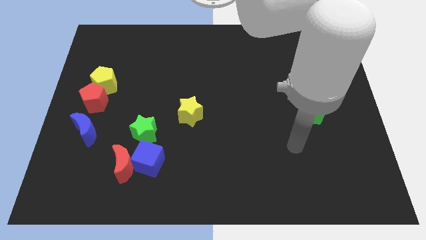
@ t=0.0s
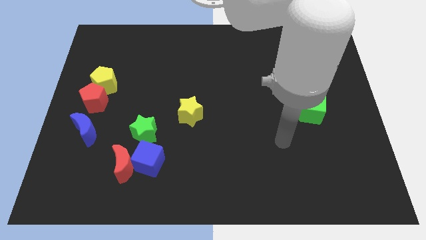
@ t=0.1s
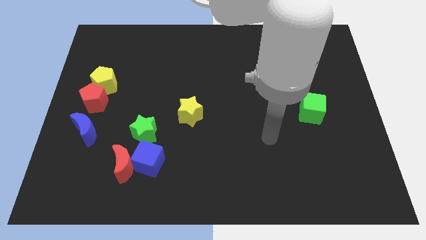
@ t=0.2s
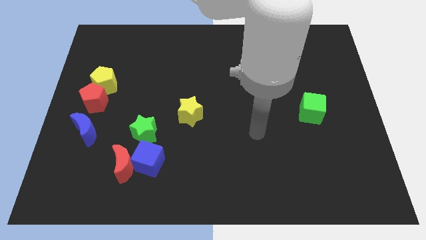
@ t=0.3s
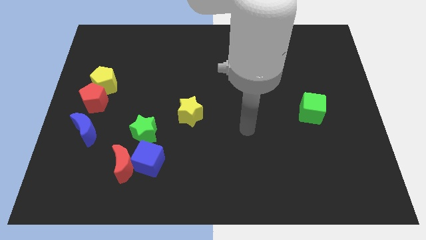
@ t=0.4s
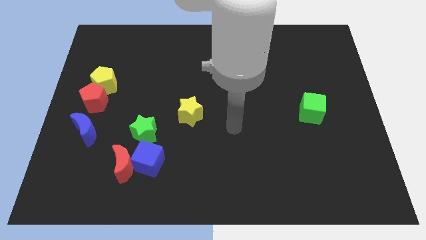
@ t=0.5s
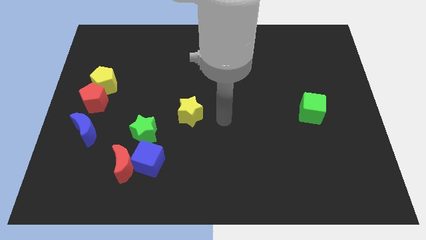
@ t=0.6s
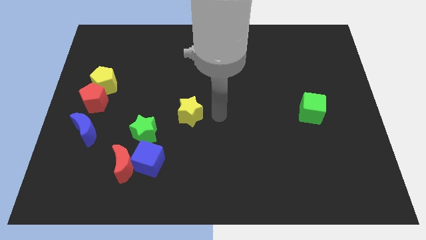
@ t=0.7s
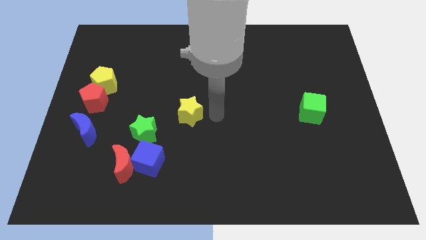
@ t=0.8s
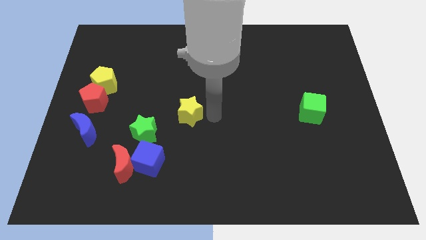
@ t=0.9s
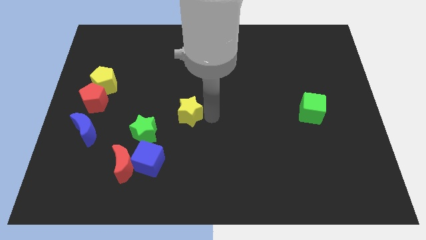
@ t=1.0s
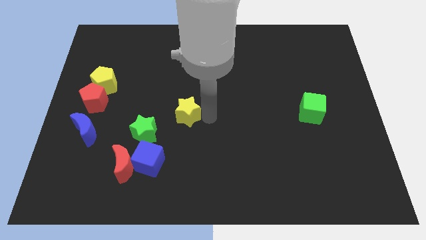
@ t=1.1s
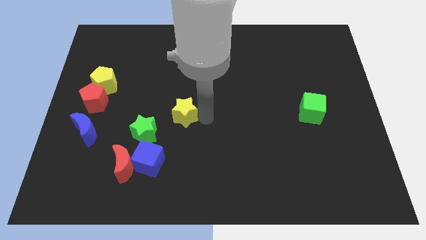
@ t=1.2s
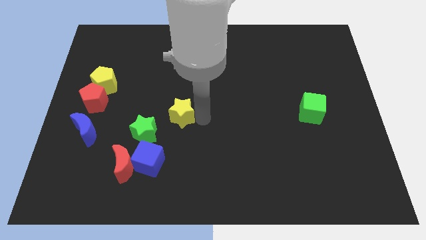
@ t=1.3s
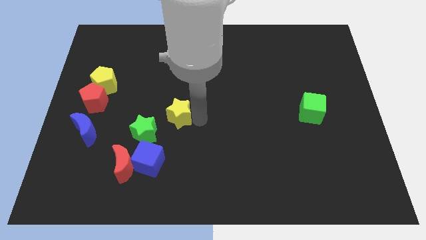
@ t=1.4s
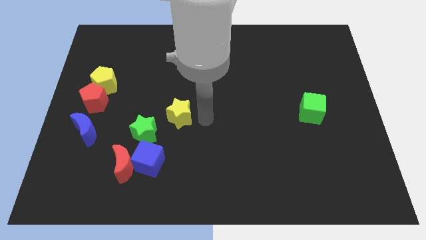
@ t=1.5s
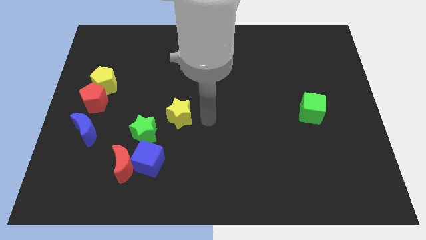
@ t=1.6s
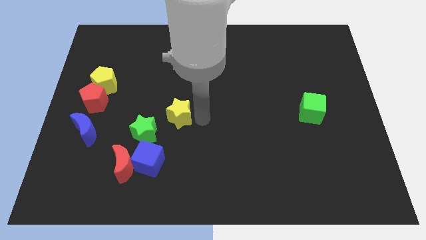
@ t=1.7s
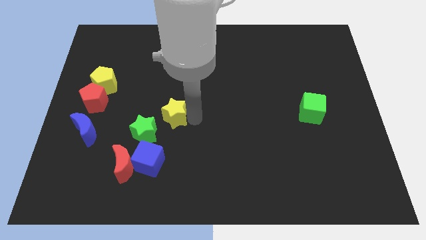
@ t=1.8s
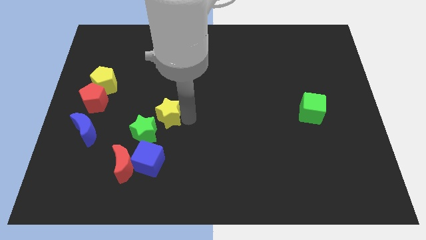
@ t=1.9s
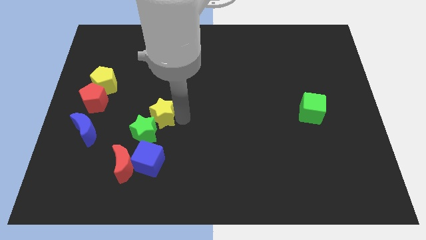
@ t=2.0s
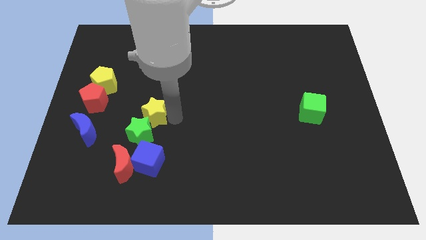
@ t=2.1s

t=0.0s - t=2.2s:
slightly push the yellow star to the left

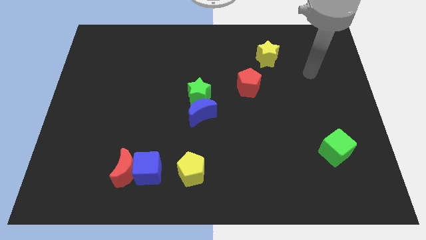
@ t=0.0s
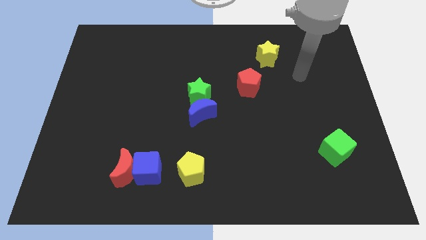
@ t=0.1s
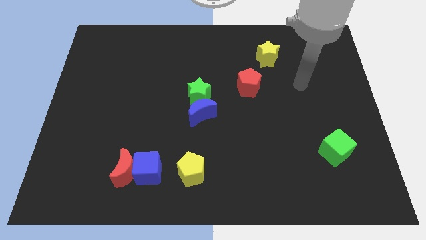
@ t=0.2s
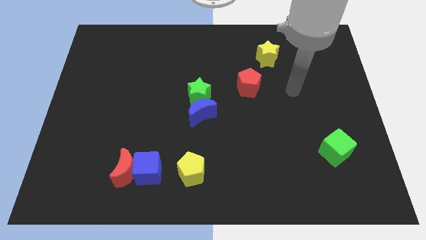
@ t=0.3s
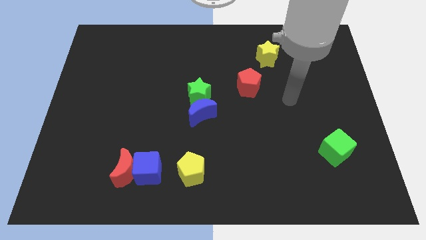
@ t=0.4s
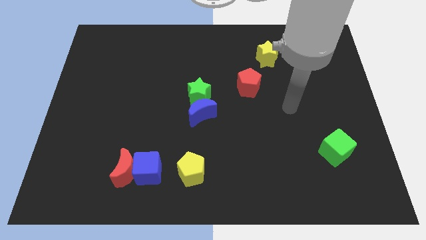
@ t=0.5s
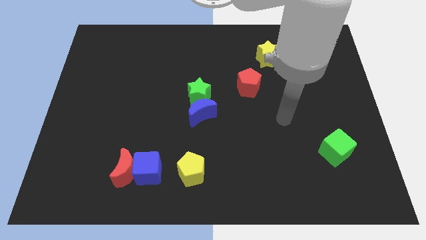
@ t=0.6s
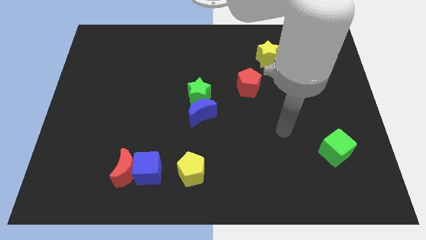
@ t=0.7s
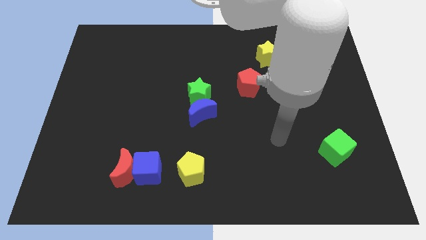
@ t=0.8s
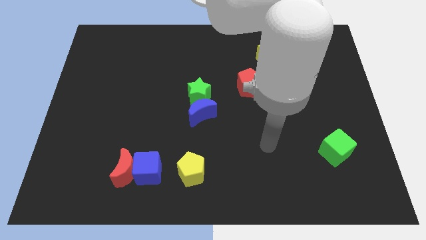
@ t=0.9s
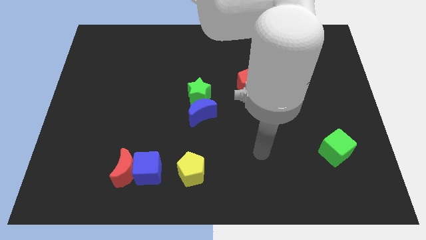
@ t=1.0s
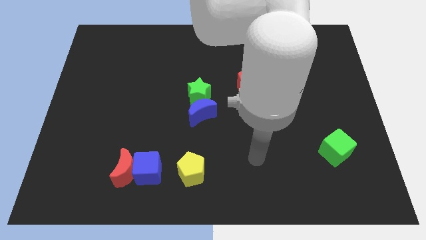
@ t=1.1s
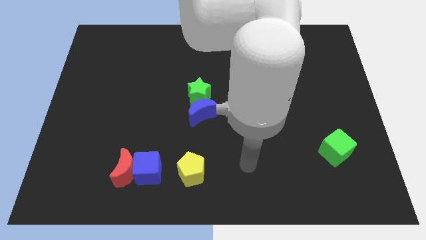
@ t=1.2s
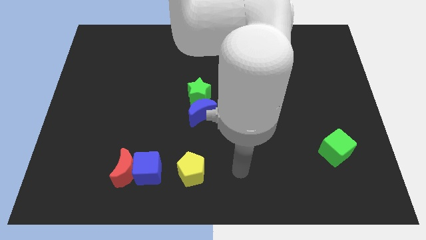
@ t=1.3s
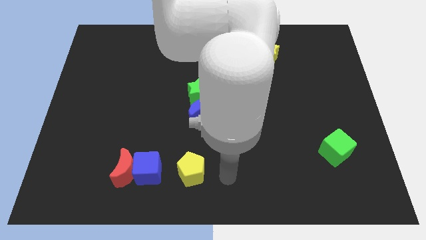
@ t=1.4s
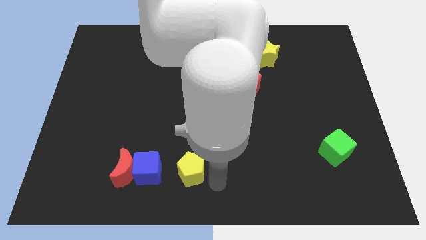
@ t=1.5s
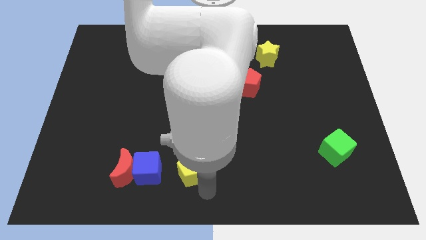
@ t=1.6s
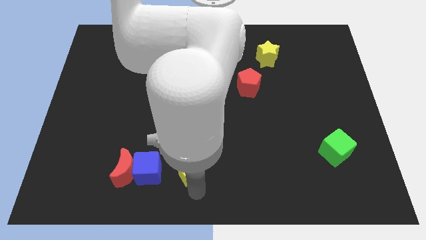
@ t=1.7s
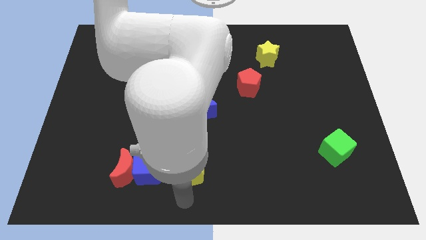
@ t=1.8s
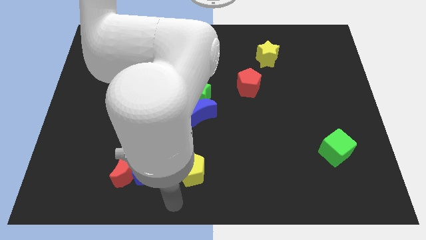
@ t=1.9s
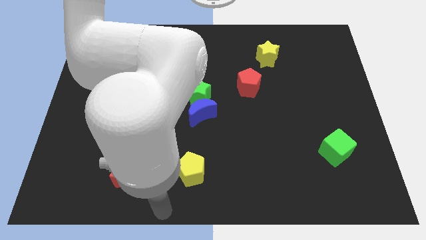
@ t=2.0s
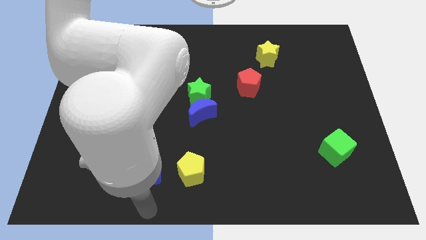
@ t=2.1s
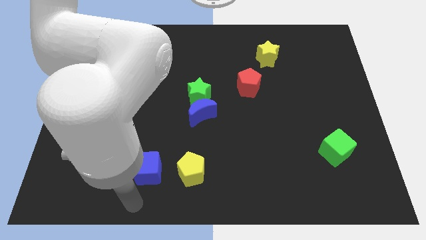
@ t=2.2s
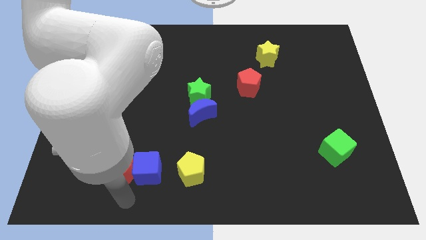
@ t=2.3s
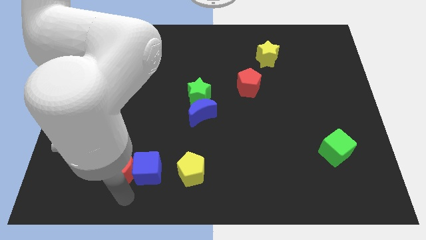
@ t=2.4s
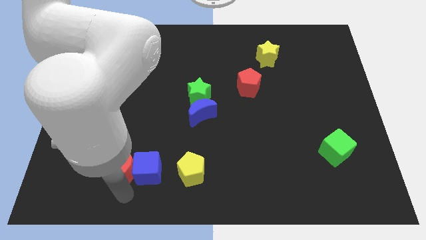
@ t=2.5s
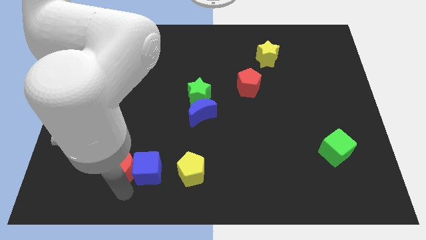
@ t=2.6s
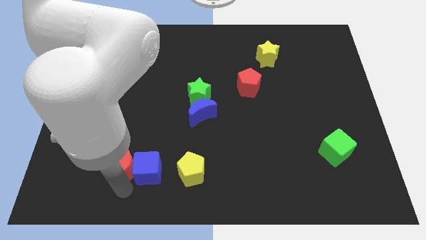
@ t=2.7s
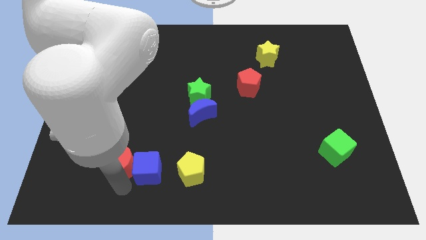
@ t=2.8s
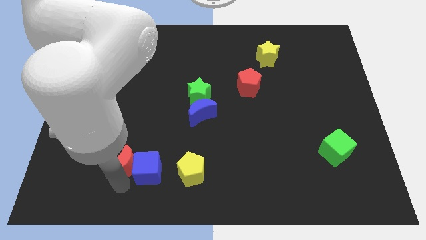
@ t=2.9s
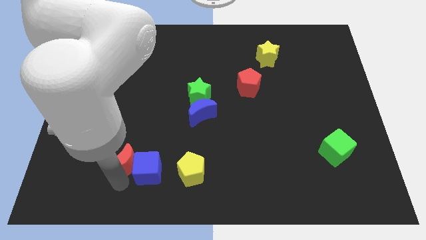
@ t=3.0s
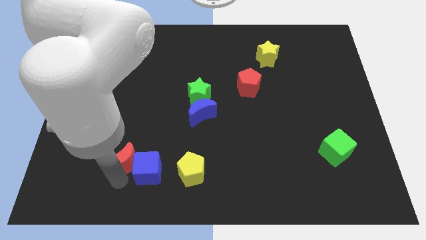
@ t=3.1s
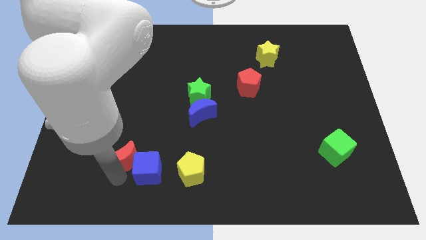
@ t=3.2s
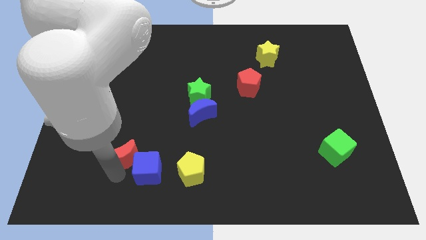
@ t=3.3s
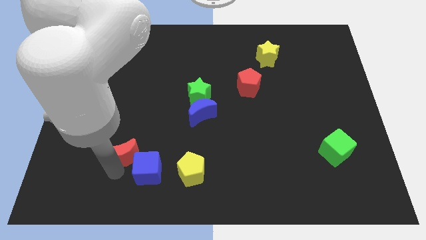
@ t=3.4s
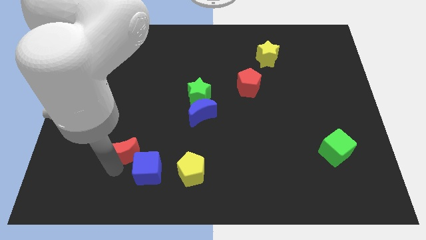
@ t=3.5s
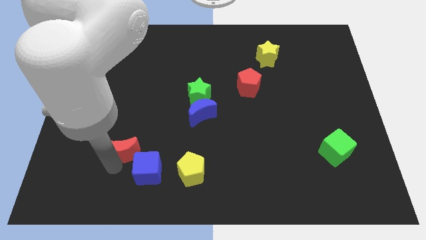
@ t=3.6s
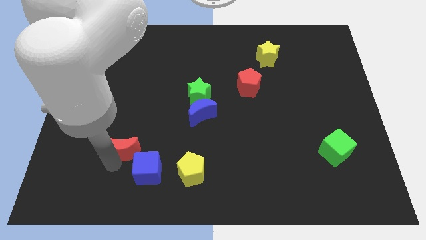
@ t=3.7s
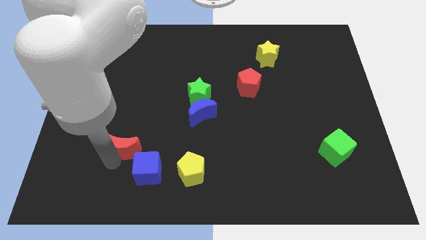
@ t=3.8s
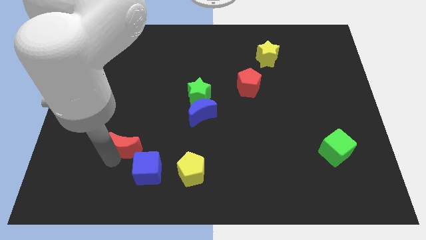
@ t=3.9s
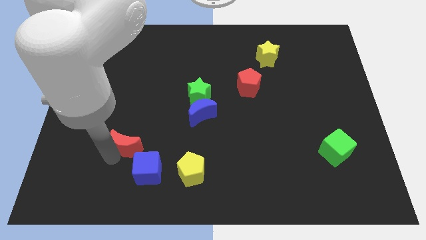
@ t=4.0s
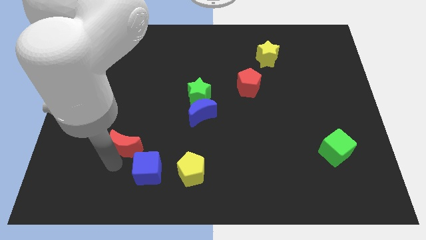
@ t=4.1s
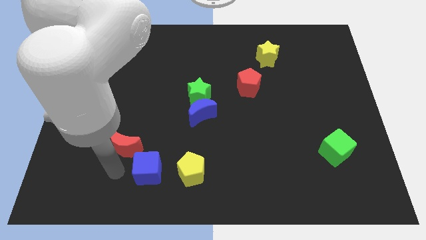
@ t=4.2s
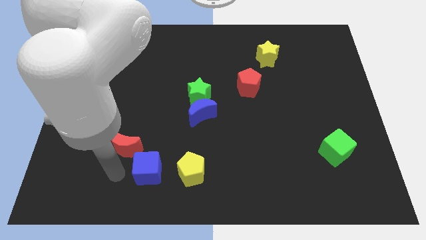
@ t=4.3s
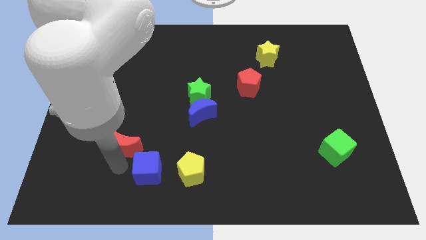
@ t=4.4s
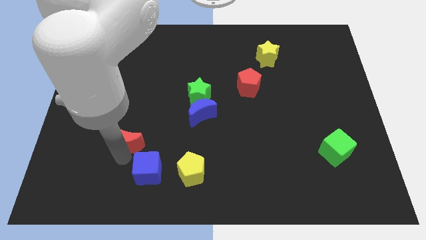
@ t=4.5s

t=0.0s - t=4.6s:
slightly push the red moon upwards

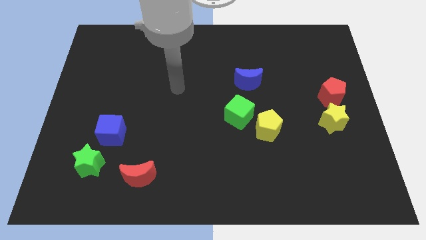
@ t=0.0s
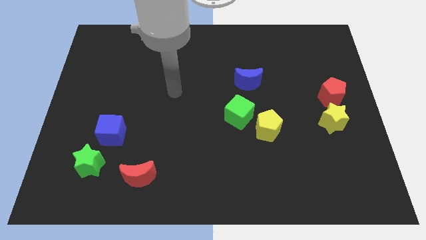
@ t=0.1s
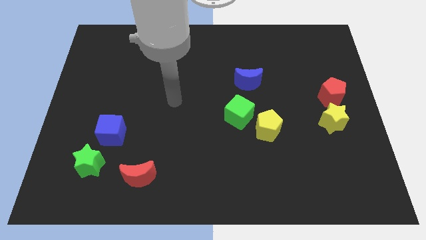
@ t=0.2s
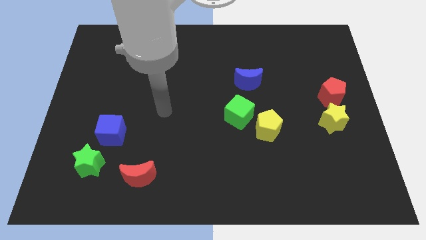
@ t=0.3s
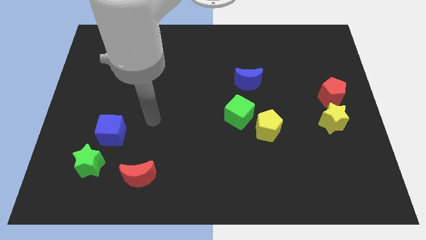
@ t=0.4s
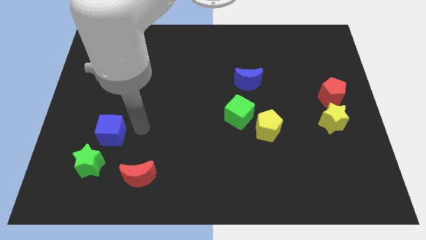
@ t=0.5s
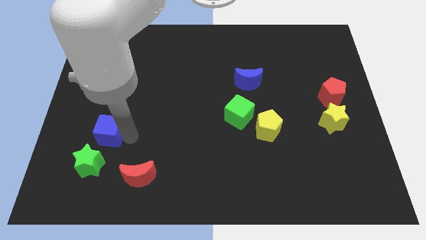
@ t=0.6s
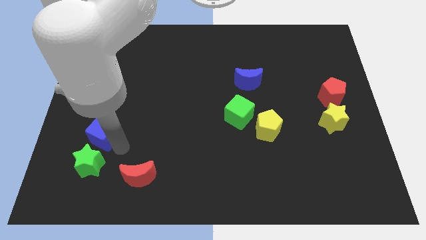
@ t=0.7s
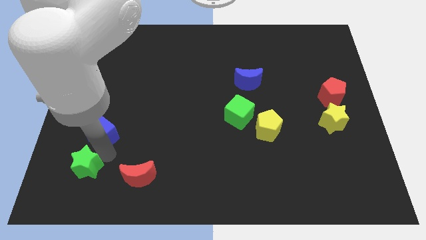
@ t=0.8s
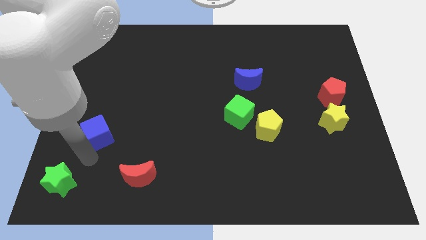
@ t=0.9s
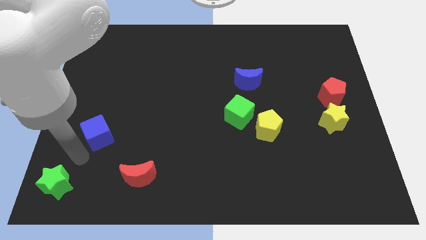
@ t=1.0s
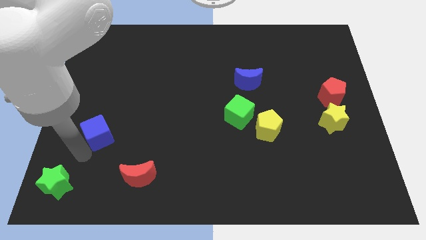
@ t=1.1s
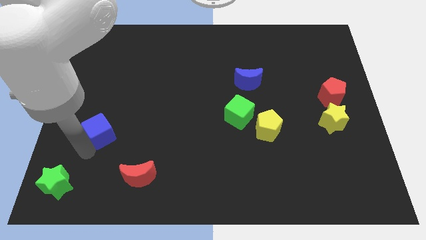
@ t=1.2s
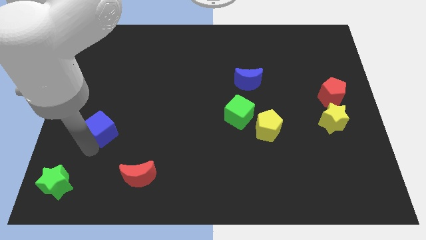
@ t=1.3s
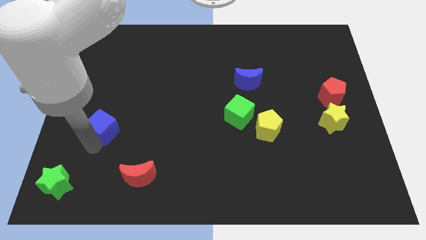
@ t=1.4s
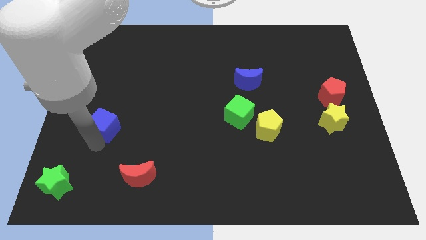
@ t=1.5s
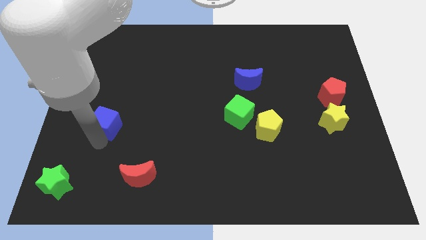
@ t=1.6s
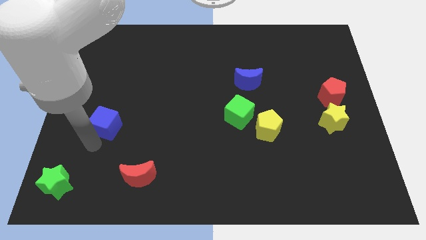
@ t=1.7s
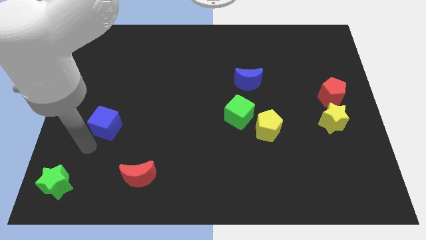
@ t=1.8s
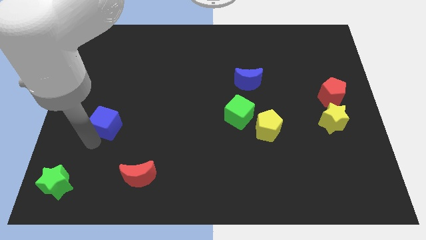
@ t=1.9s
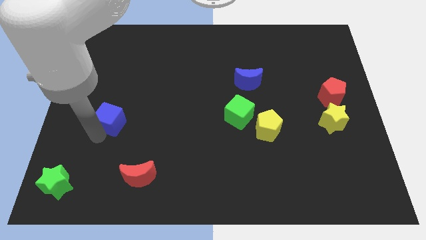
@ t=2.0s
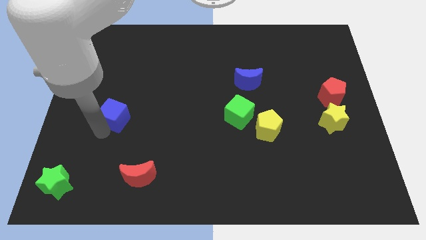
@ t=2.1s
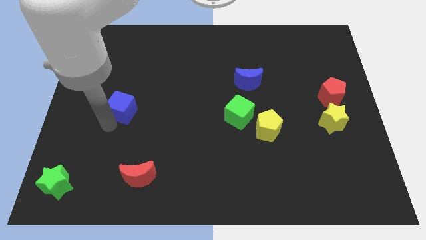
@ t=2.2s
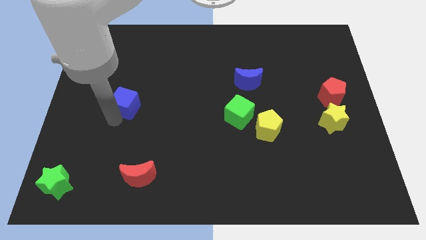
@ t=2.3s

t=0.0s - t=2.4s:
slide the blue cube up a bit
